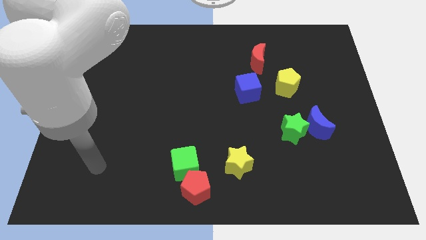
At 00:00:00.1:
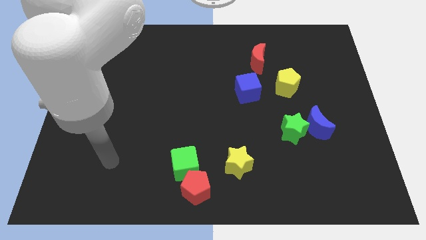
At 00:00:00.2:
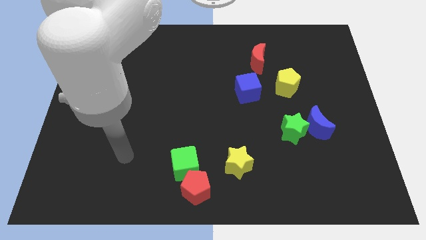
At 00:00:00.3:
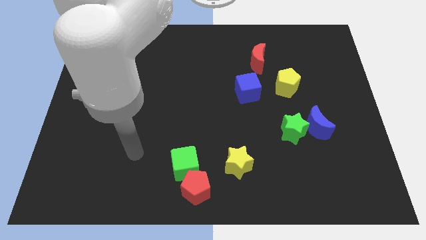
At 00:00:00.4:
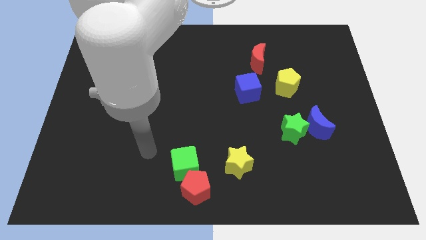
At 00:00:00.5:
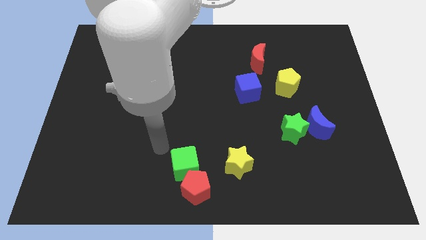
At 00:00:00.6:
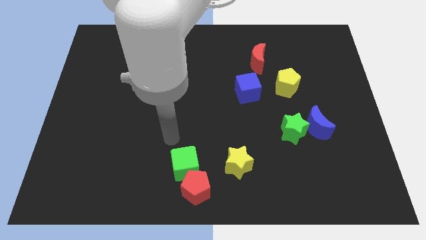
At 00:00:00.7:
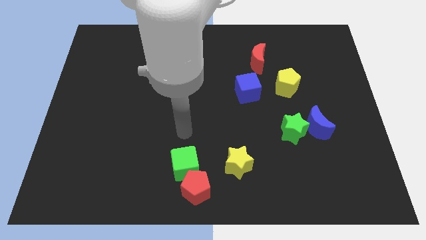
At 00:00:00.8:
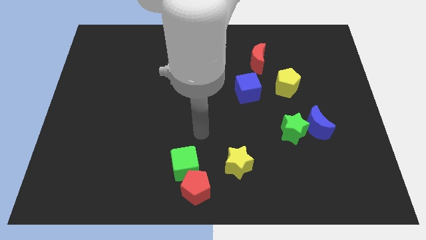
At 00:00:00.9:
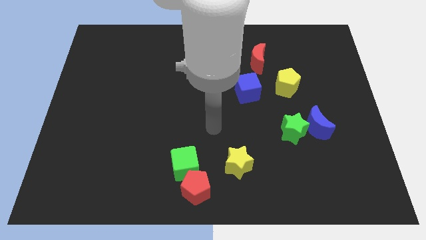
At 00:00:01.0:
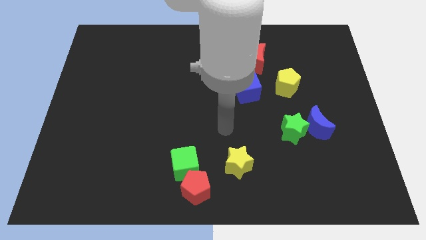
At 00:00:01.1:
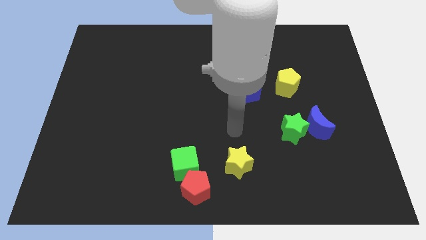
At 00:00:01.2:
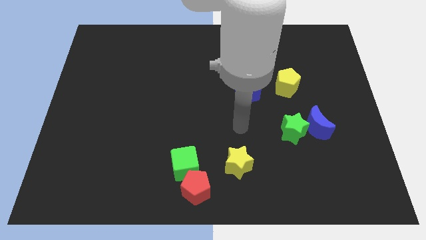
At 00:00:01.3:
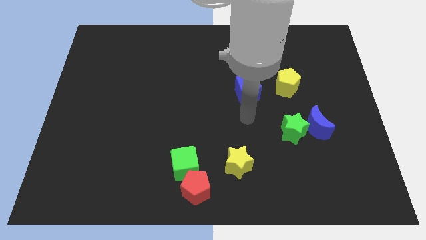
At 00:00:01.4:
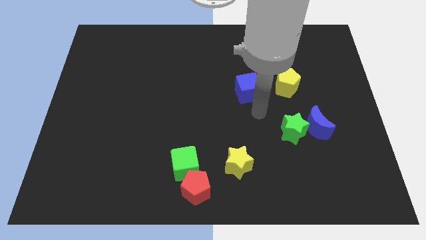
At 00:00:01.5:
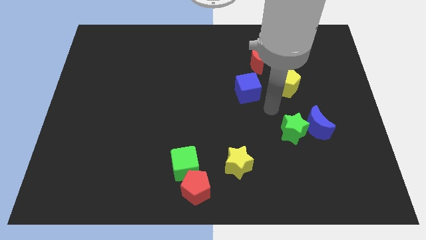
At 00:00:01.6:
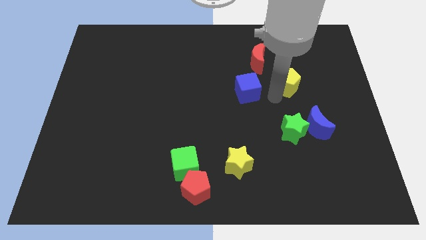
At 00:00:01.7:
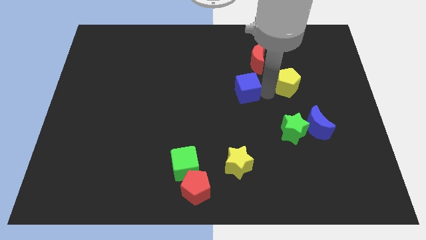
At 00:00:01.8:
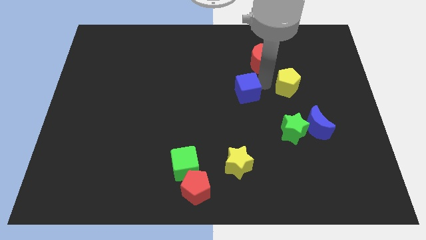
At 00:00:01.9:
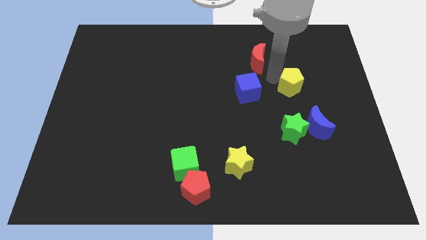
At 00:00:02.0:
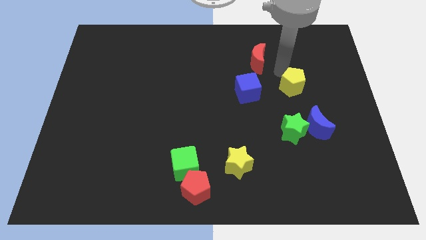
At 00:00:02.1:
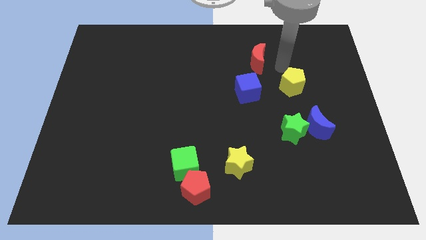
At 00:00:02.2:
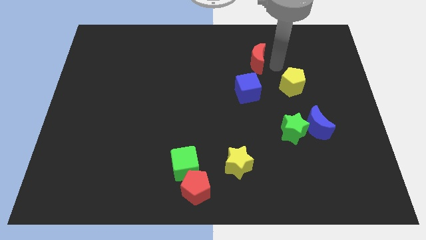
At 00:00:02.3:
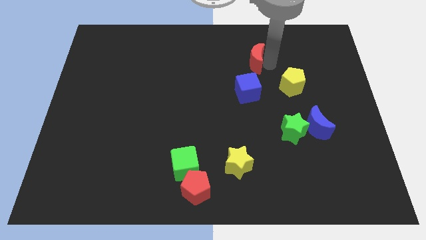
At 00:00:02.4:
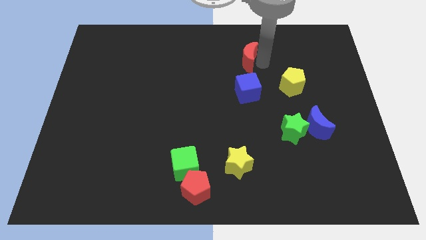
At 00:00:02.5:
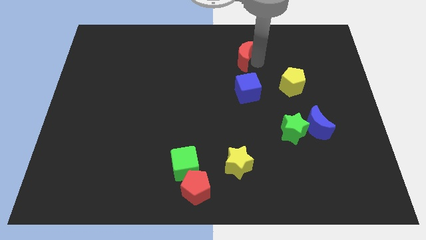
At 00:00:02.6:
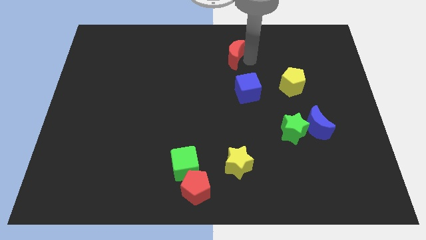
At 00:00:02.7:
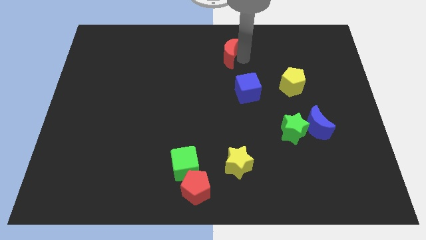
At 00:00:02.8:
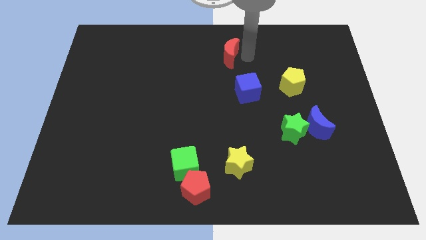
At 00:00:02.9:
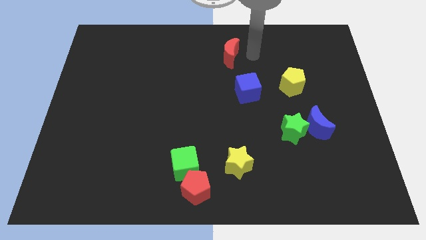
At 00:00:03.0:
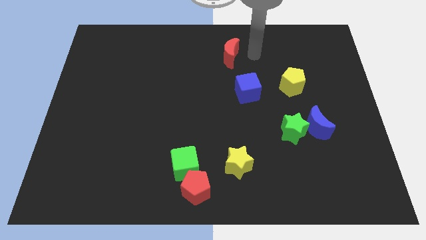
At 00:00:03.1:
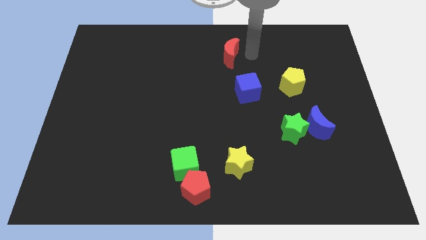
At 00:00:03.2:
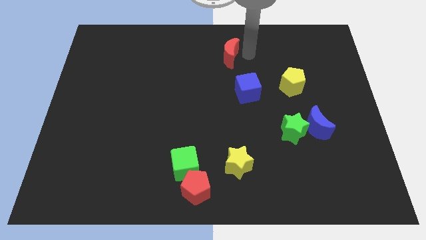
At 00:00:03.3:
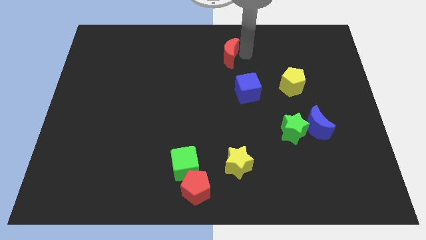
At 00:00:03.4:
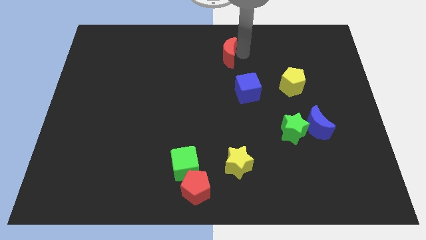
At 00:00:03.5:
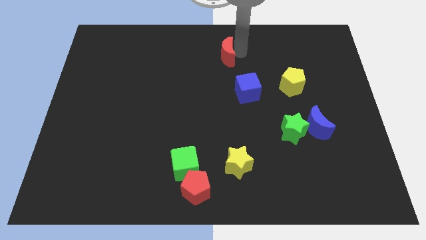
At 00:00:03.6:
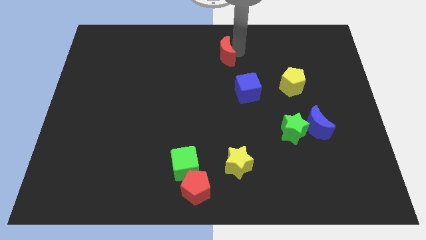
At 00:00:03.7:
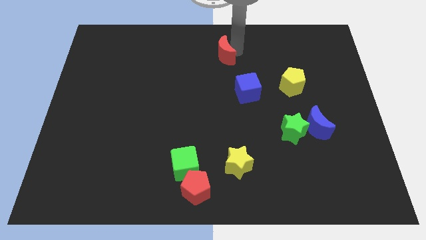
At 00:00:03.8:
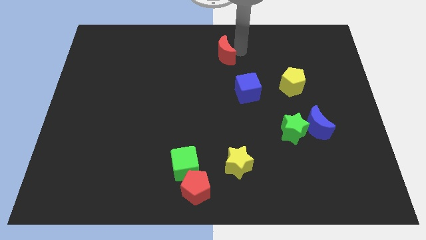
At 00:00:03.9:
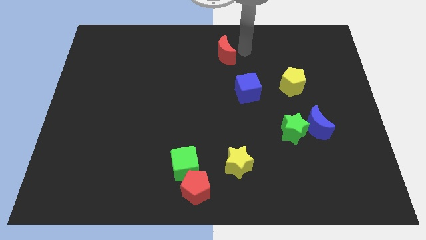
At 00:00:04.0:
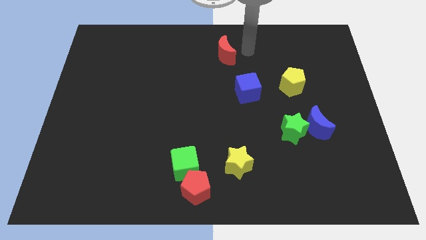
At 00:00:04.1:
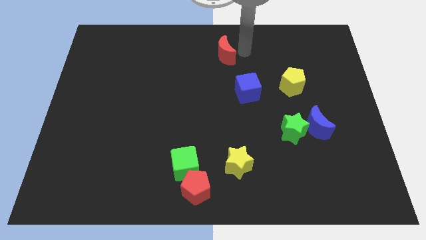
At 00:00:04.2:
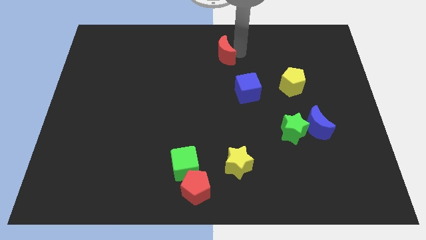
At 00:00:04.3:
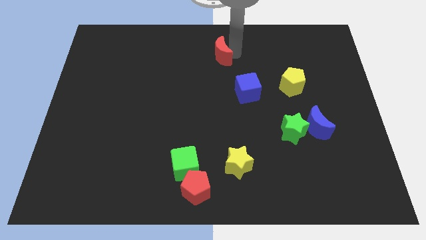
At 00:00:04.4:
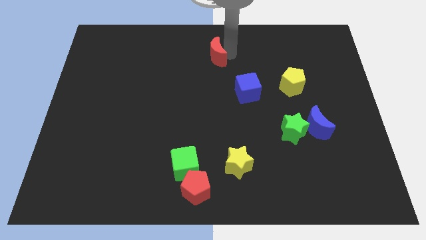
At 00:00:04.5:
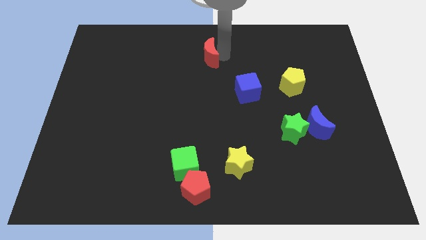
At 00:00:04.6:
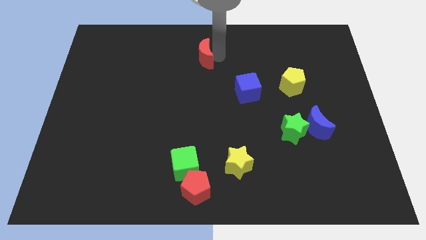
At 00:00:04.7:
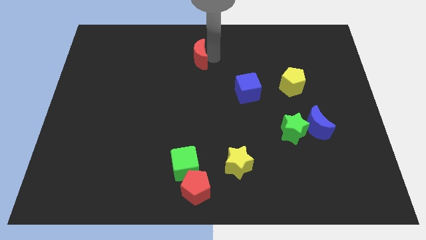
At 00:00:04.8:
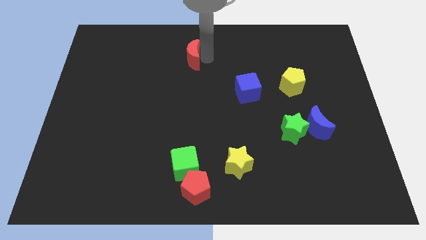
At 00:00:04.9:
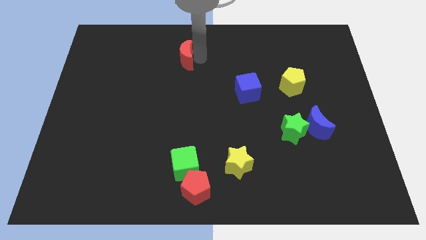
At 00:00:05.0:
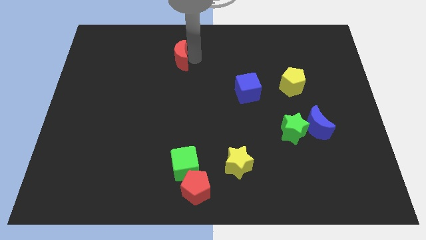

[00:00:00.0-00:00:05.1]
move the red moon to the left

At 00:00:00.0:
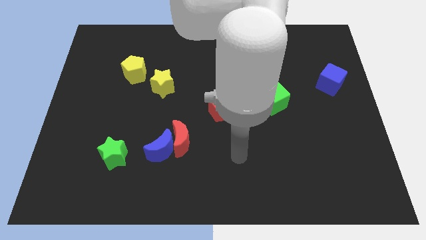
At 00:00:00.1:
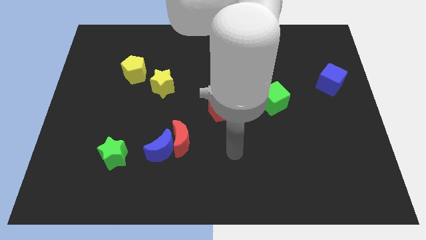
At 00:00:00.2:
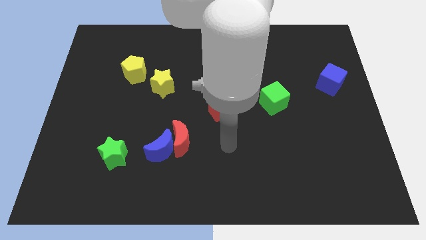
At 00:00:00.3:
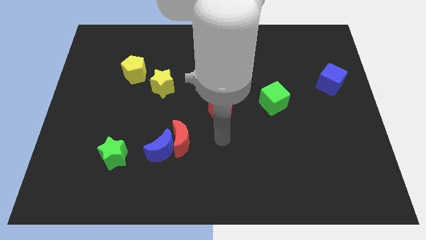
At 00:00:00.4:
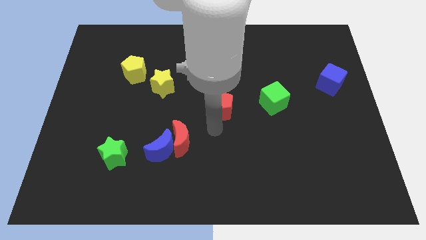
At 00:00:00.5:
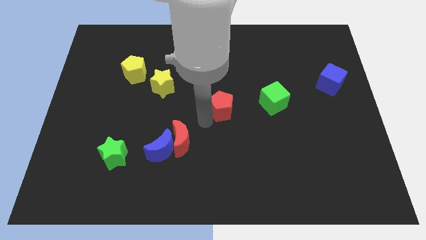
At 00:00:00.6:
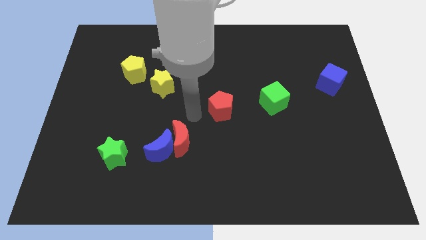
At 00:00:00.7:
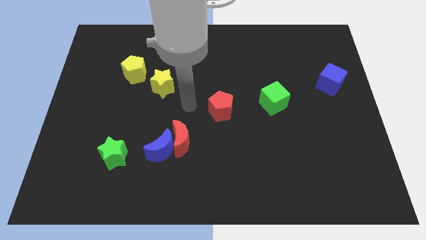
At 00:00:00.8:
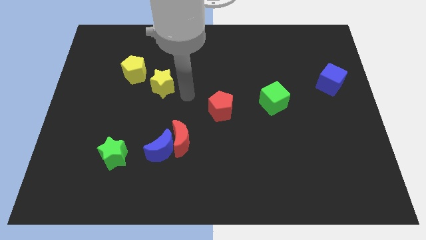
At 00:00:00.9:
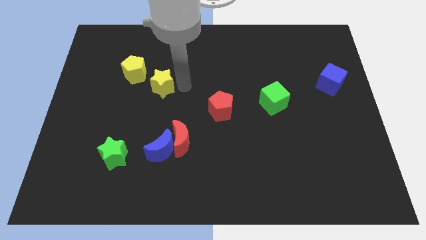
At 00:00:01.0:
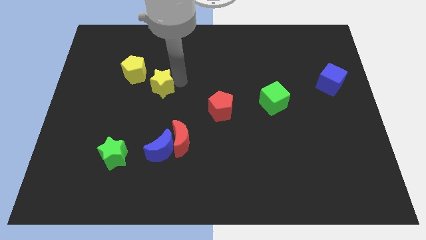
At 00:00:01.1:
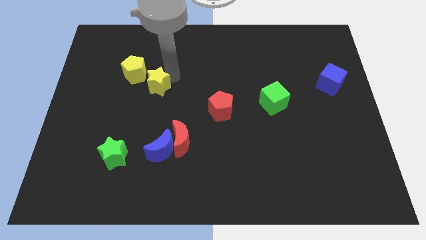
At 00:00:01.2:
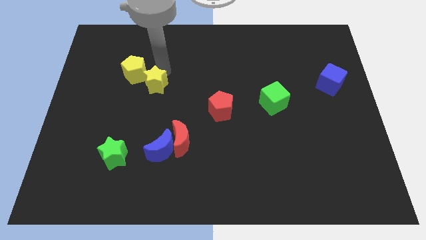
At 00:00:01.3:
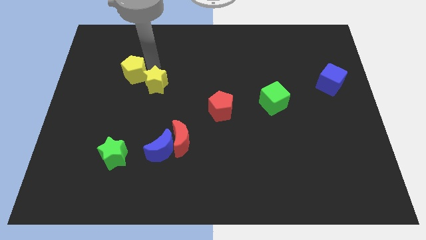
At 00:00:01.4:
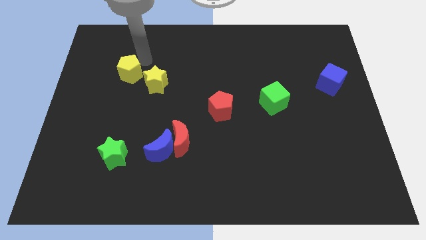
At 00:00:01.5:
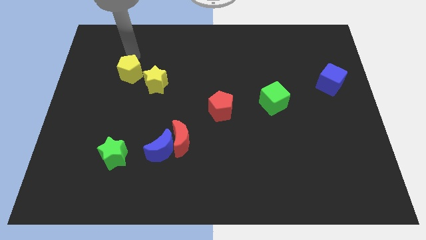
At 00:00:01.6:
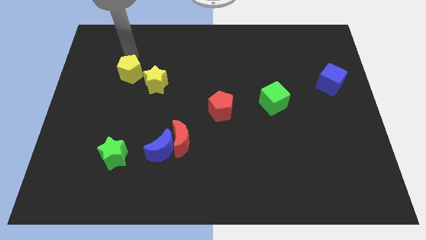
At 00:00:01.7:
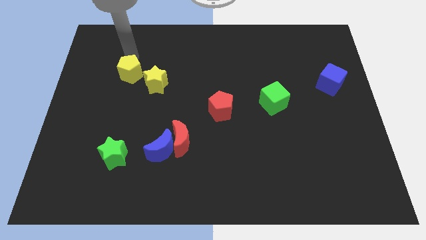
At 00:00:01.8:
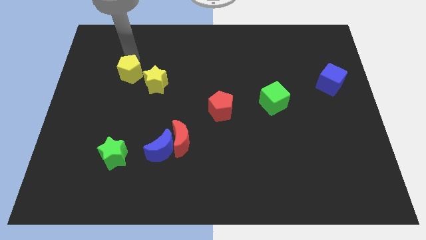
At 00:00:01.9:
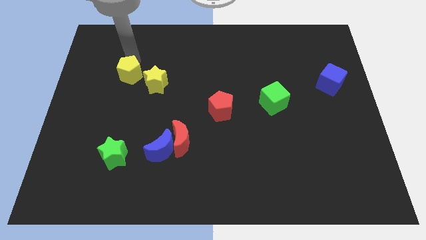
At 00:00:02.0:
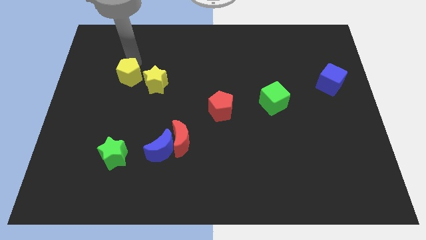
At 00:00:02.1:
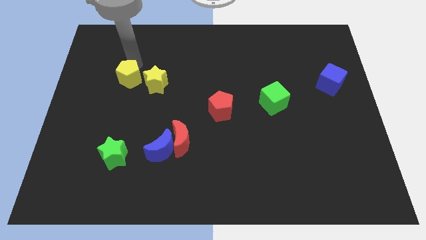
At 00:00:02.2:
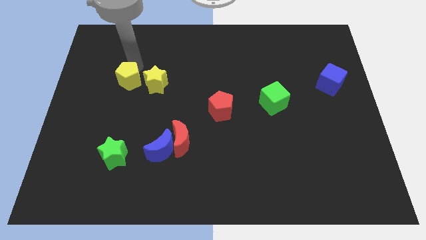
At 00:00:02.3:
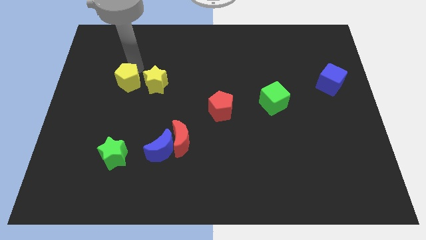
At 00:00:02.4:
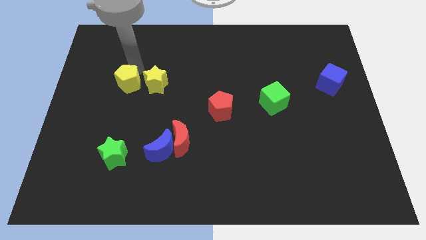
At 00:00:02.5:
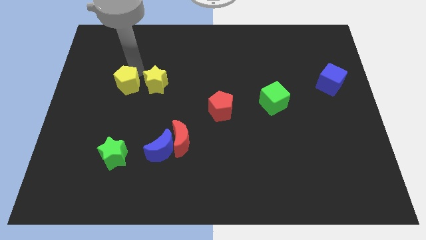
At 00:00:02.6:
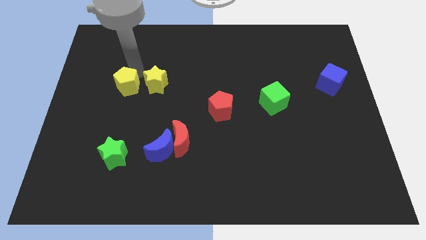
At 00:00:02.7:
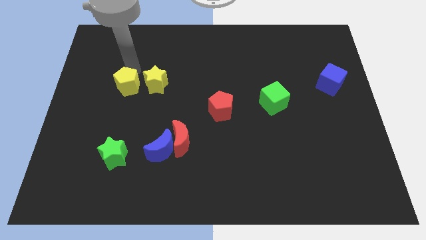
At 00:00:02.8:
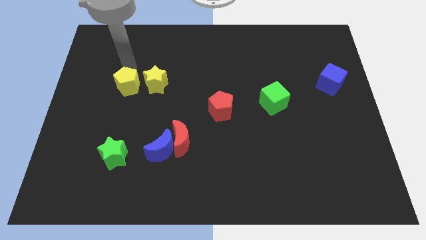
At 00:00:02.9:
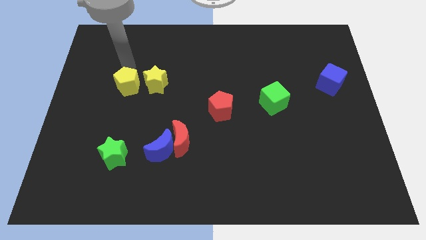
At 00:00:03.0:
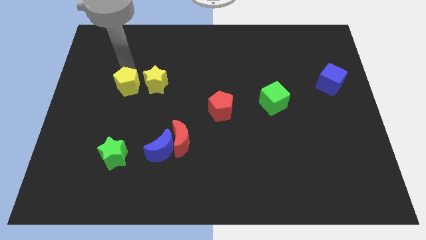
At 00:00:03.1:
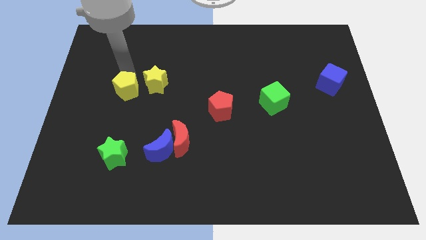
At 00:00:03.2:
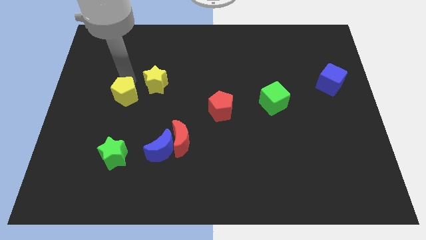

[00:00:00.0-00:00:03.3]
slightly push the yellow pentagon down
